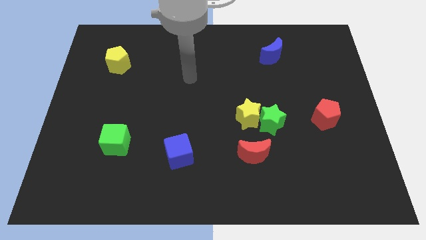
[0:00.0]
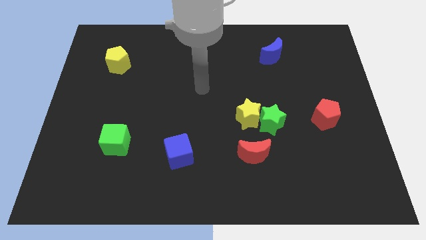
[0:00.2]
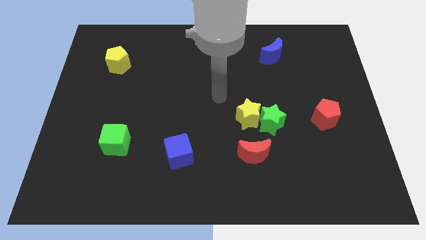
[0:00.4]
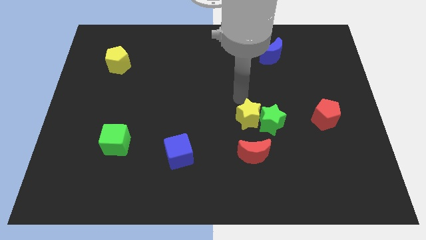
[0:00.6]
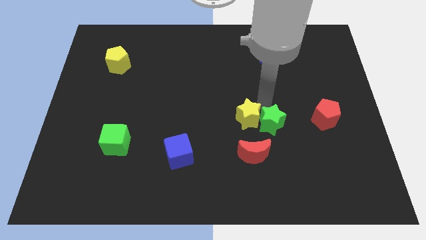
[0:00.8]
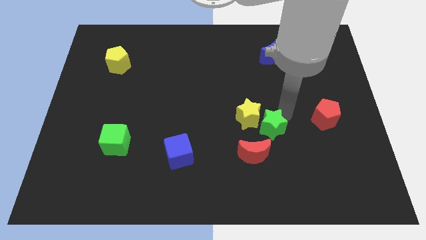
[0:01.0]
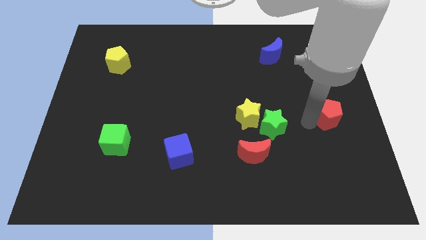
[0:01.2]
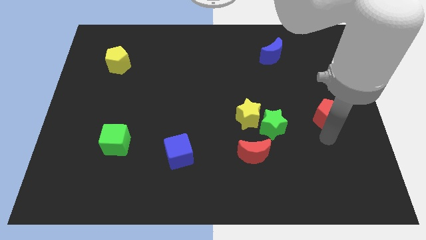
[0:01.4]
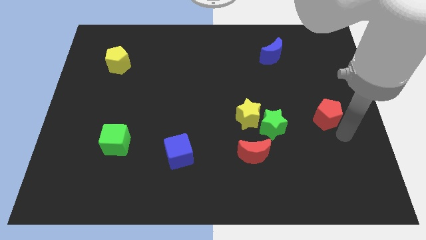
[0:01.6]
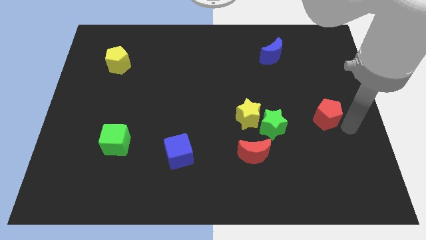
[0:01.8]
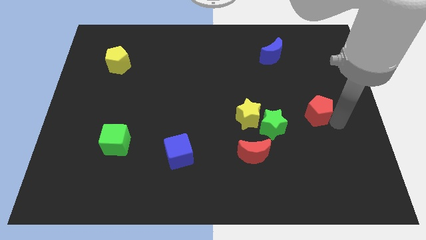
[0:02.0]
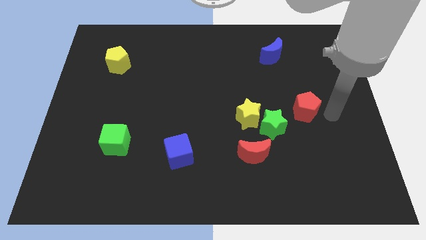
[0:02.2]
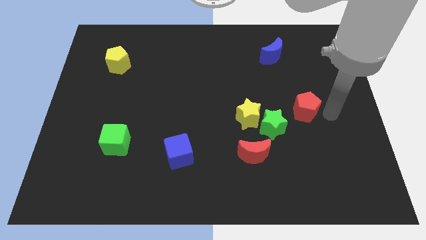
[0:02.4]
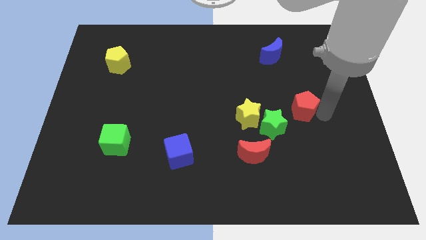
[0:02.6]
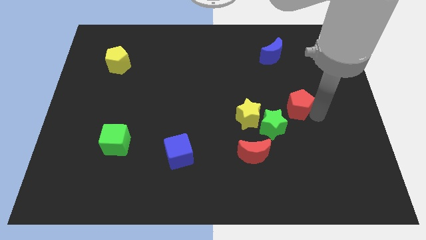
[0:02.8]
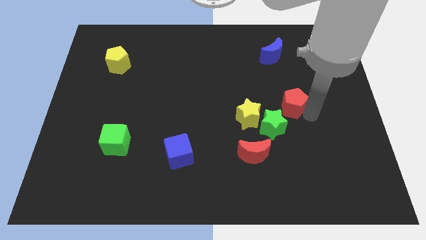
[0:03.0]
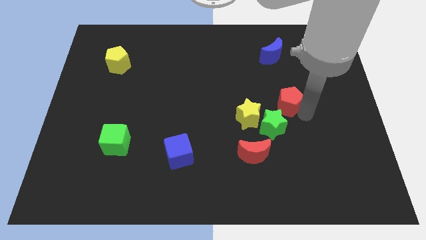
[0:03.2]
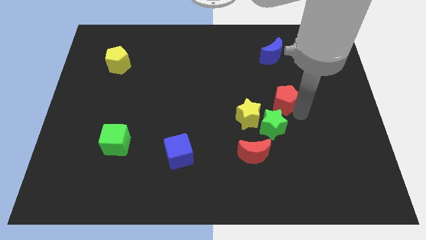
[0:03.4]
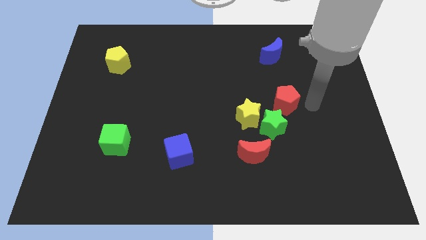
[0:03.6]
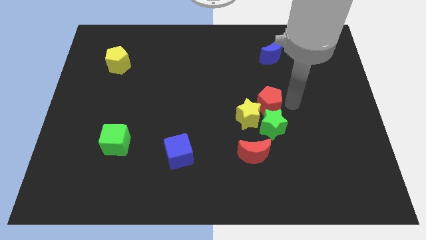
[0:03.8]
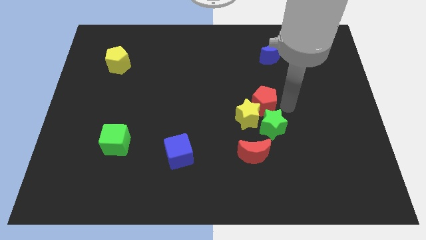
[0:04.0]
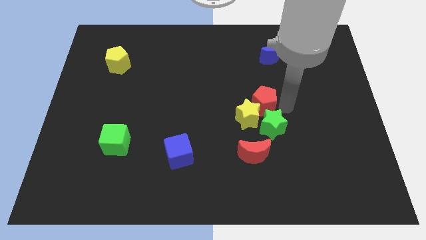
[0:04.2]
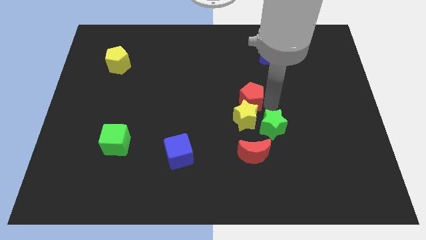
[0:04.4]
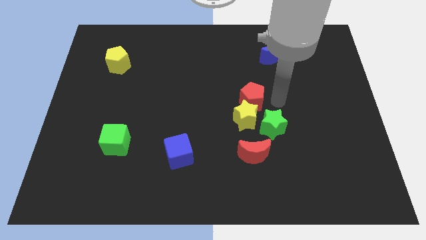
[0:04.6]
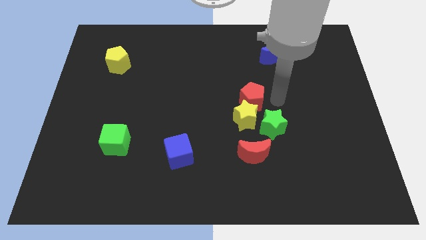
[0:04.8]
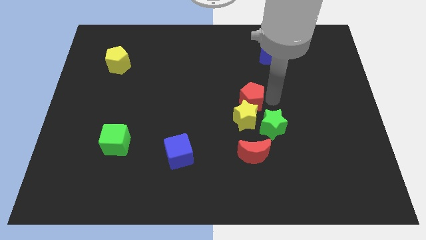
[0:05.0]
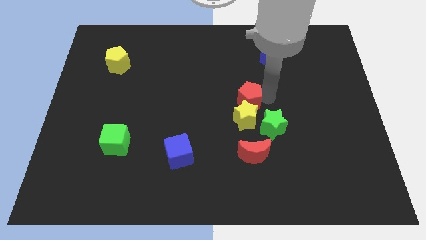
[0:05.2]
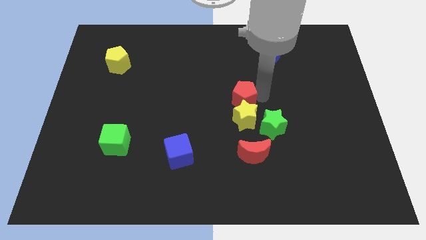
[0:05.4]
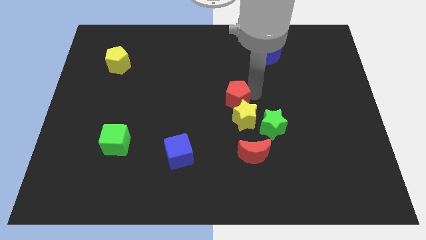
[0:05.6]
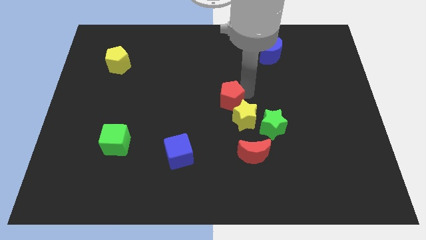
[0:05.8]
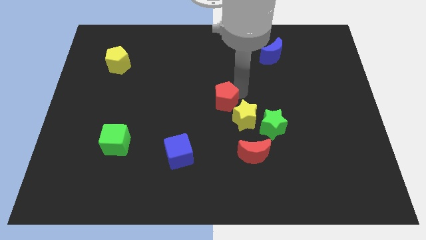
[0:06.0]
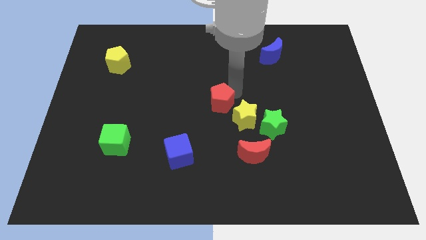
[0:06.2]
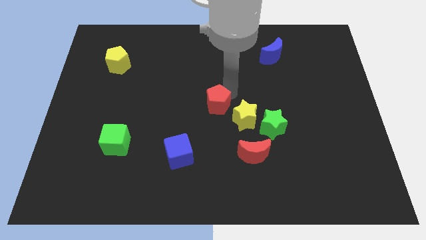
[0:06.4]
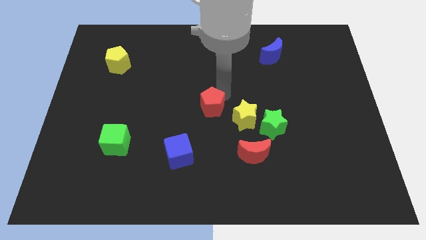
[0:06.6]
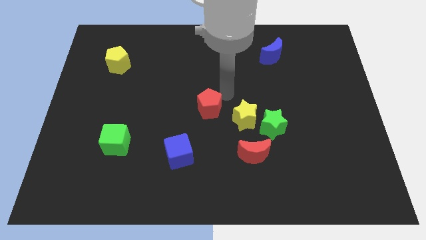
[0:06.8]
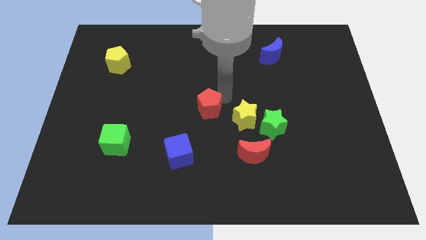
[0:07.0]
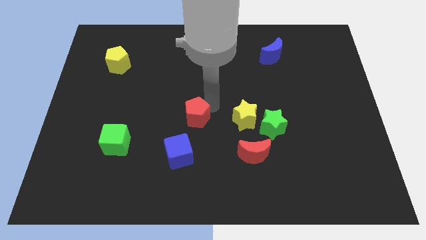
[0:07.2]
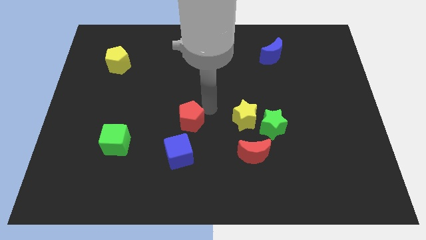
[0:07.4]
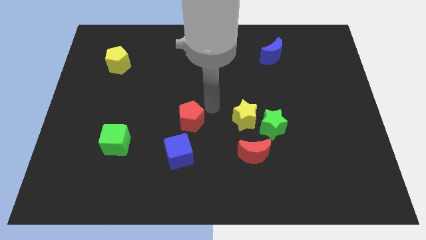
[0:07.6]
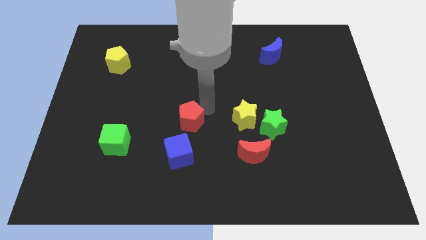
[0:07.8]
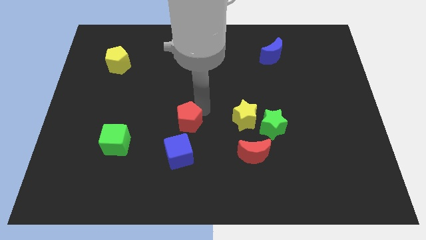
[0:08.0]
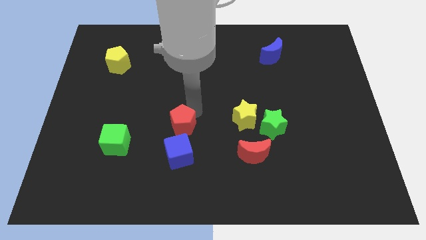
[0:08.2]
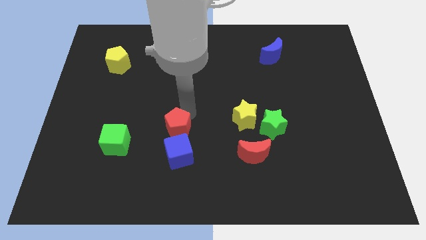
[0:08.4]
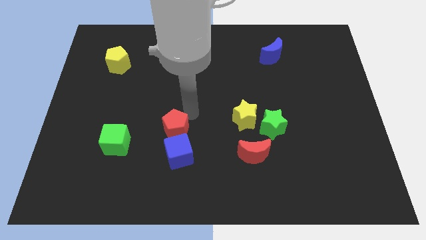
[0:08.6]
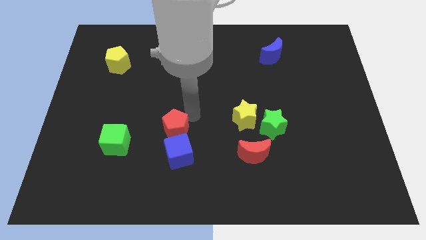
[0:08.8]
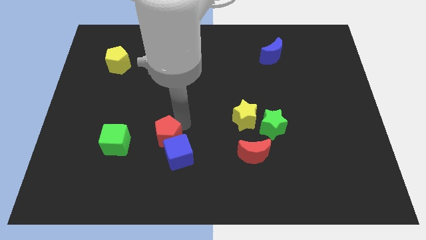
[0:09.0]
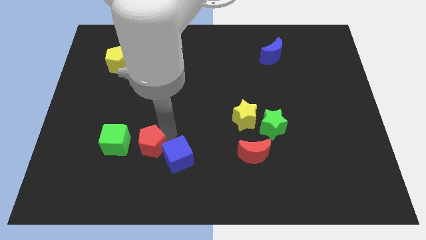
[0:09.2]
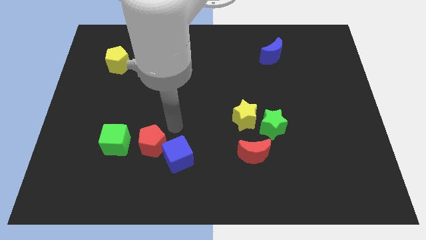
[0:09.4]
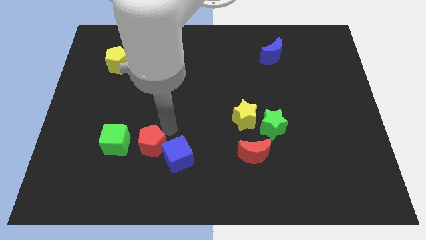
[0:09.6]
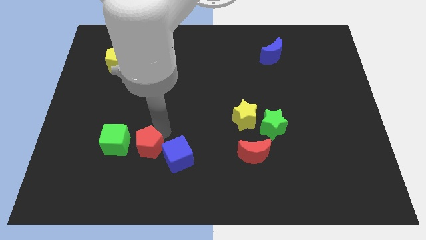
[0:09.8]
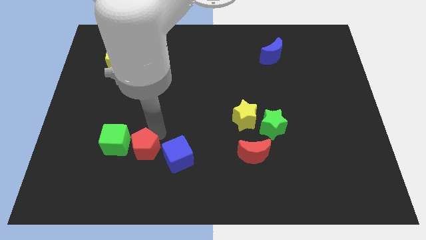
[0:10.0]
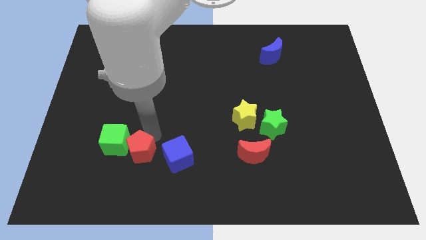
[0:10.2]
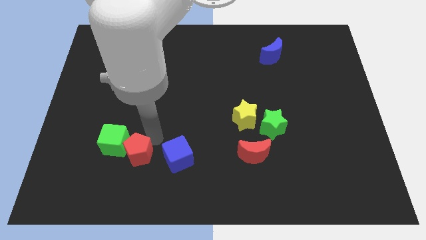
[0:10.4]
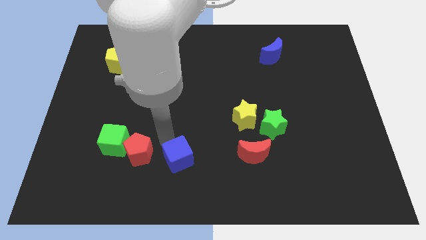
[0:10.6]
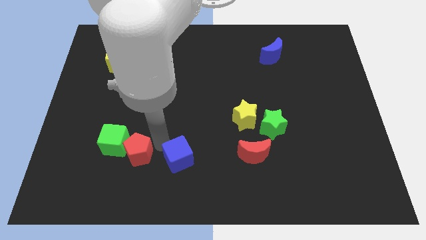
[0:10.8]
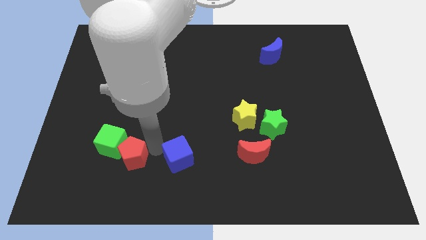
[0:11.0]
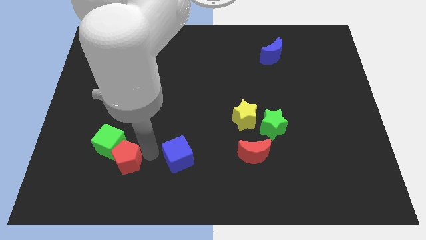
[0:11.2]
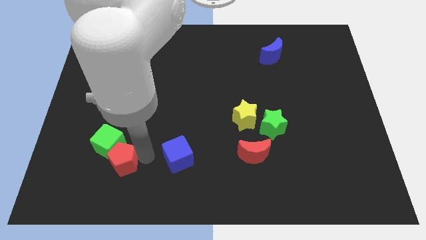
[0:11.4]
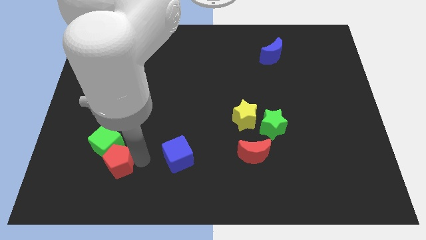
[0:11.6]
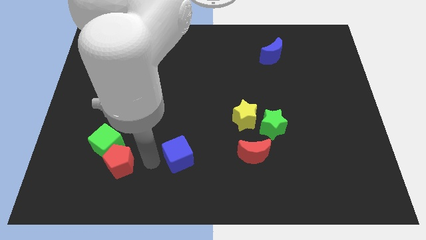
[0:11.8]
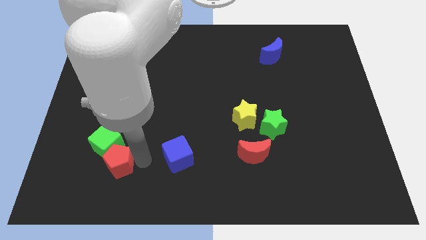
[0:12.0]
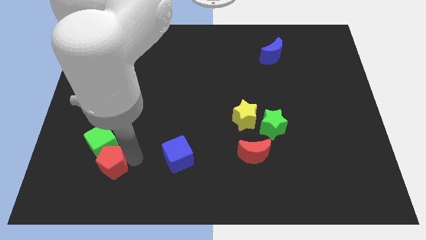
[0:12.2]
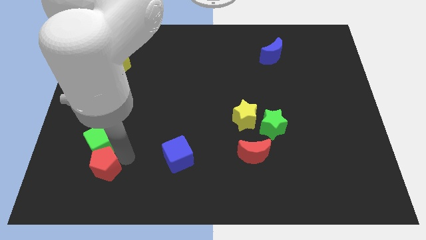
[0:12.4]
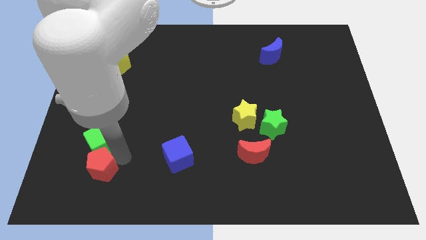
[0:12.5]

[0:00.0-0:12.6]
slide the red pentagon diagonally down and to the left of the green cube

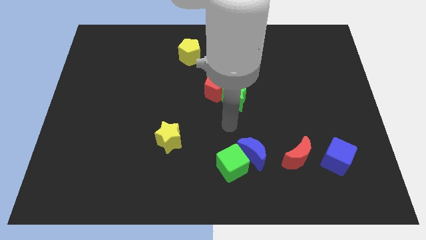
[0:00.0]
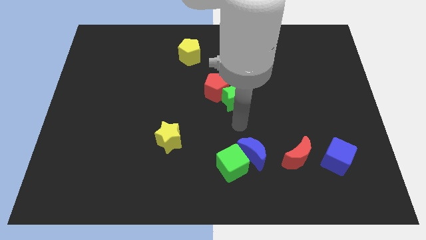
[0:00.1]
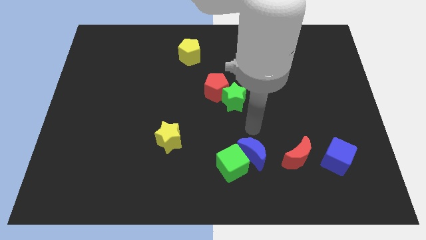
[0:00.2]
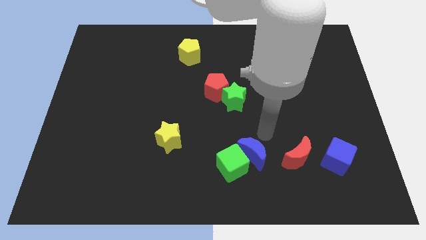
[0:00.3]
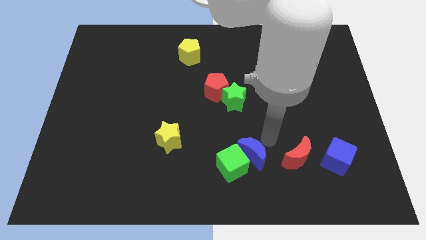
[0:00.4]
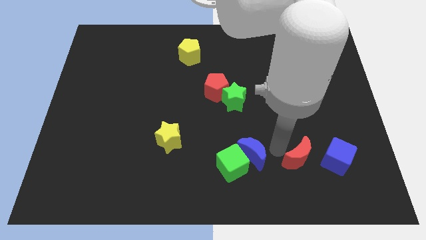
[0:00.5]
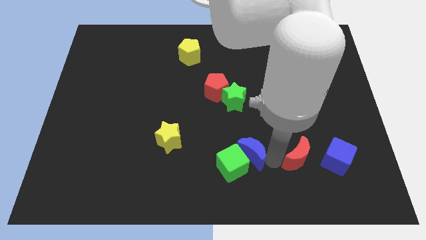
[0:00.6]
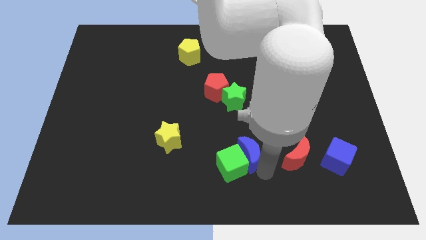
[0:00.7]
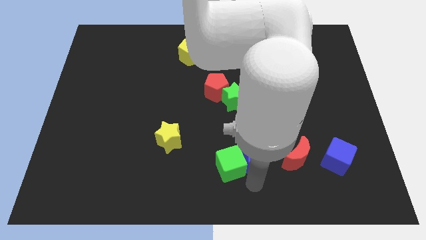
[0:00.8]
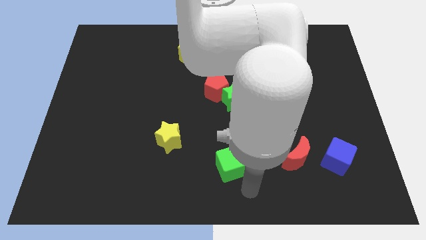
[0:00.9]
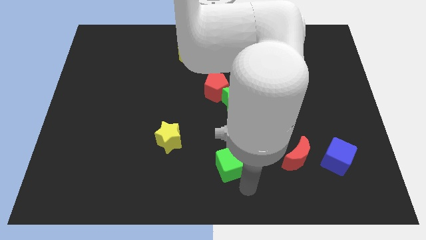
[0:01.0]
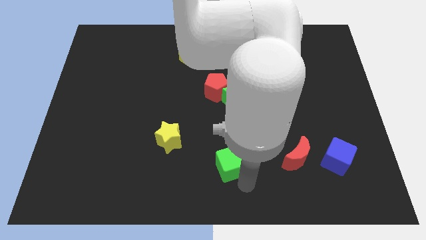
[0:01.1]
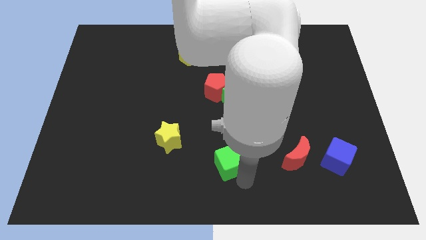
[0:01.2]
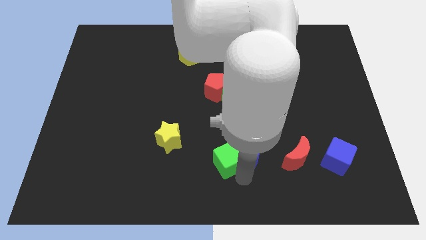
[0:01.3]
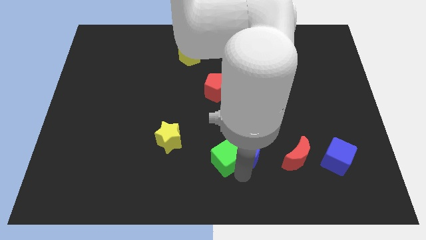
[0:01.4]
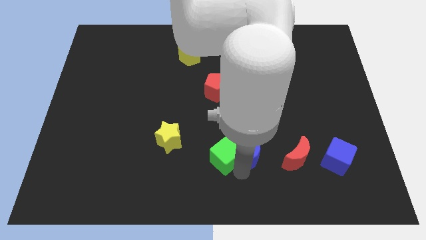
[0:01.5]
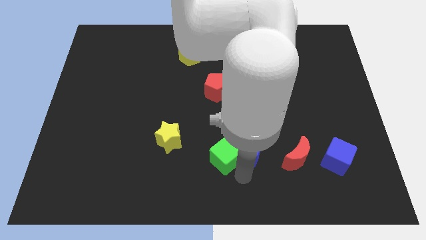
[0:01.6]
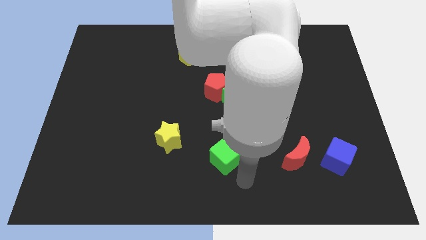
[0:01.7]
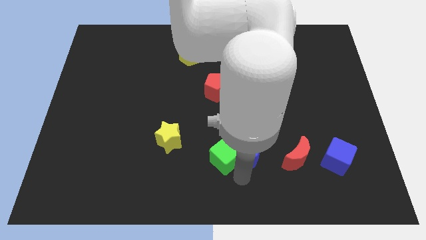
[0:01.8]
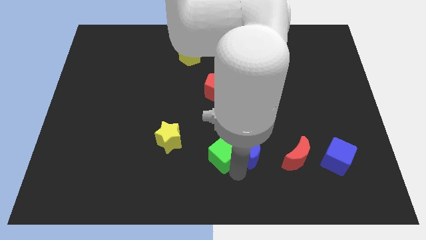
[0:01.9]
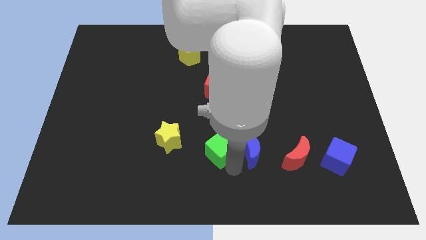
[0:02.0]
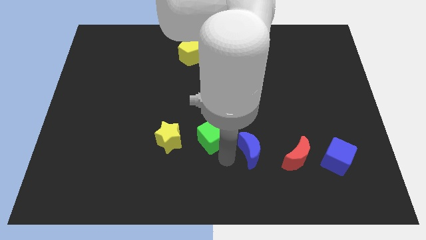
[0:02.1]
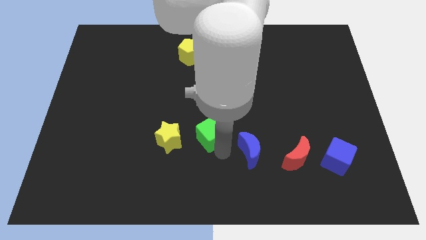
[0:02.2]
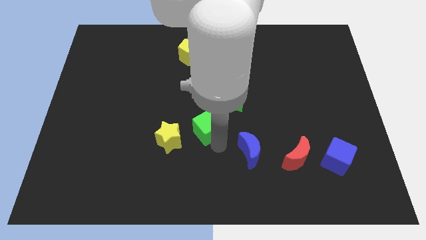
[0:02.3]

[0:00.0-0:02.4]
push the green cube to the top right side of the yellow star
